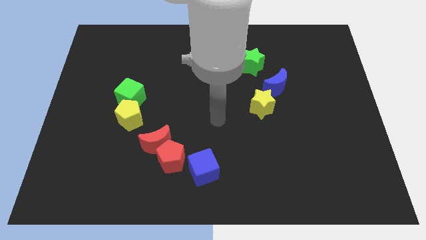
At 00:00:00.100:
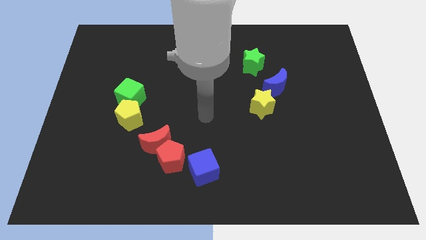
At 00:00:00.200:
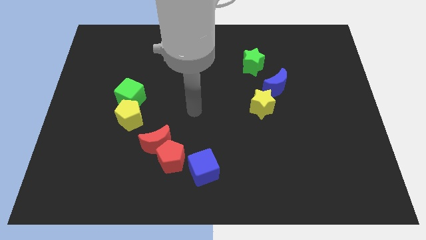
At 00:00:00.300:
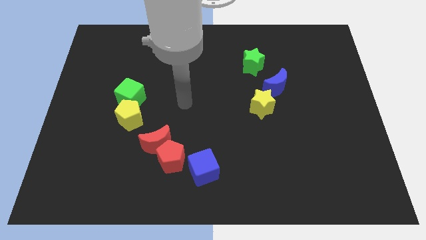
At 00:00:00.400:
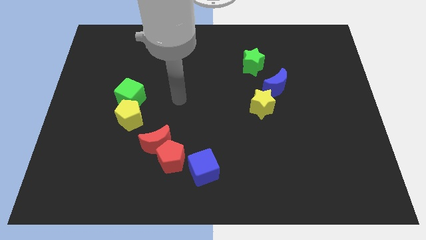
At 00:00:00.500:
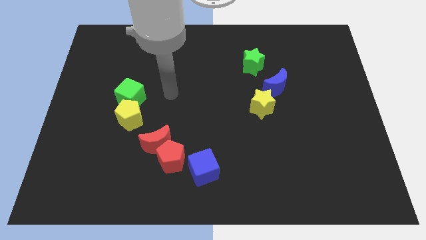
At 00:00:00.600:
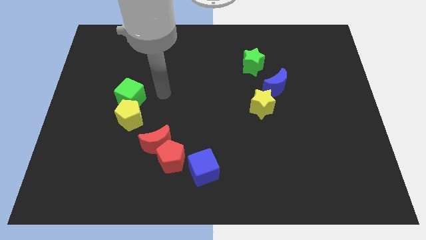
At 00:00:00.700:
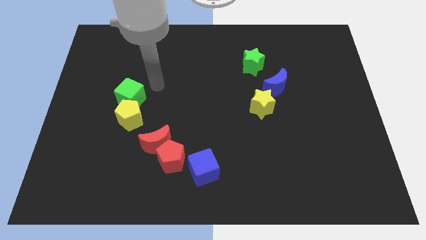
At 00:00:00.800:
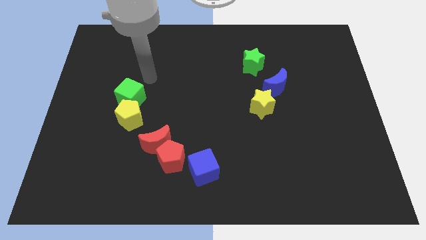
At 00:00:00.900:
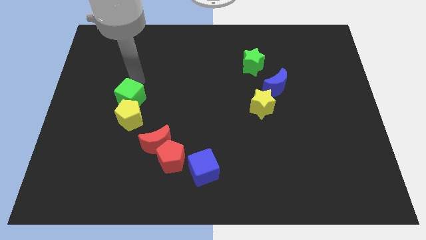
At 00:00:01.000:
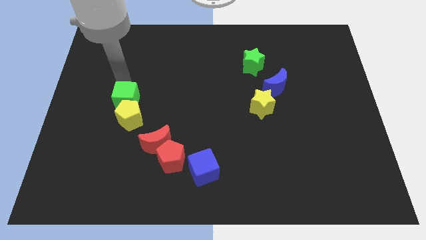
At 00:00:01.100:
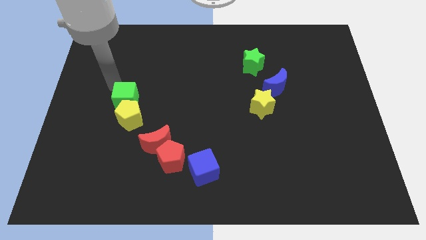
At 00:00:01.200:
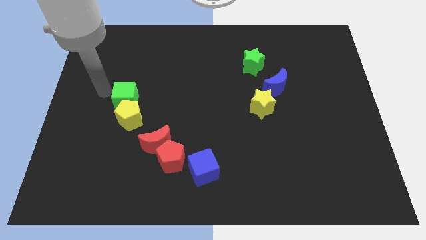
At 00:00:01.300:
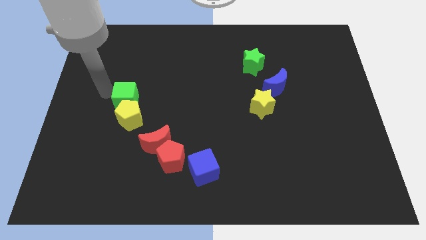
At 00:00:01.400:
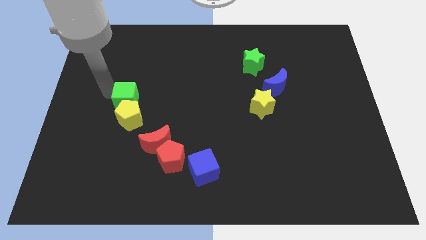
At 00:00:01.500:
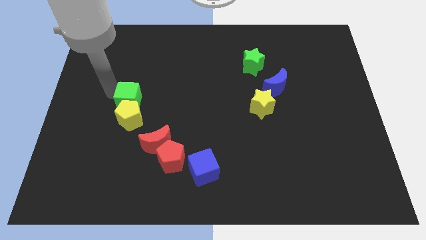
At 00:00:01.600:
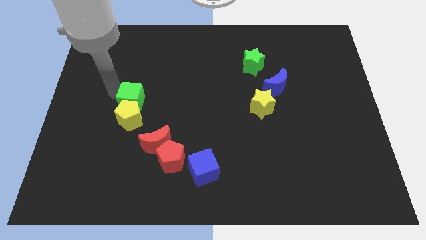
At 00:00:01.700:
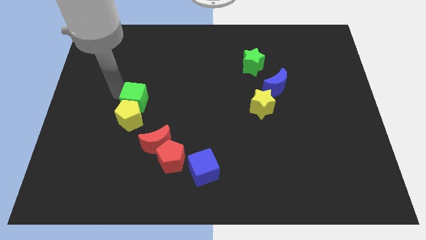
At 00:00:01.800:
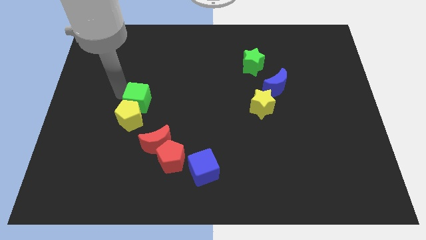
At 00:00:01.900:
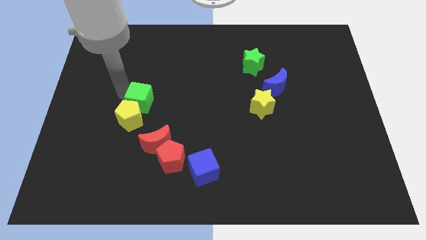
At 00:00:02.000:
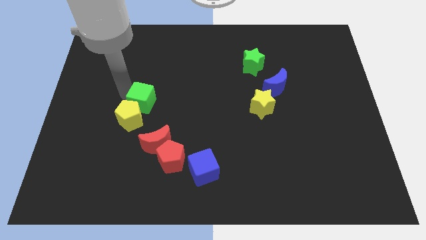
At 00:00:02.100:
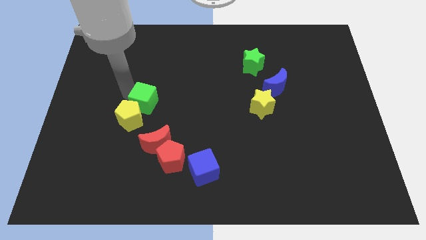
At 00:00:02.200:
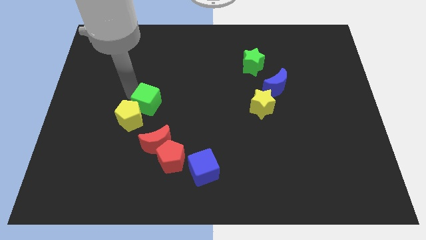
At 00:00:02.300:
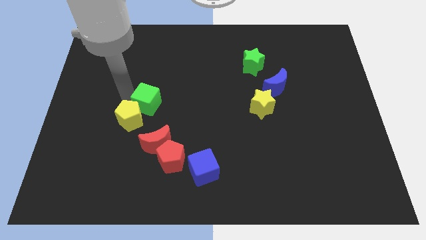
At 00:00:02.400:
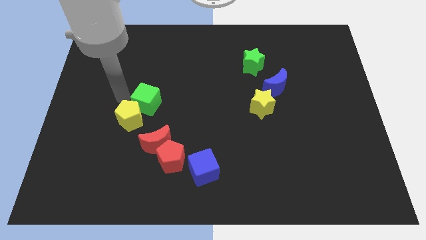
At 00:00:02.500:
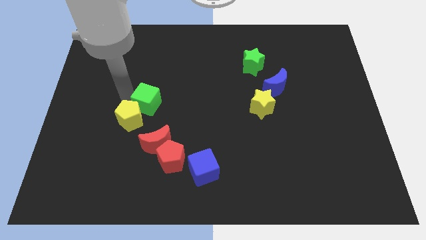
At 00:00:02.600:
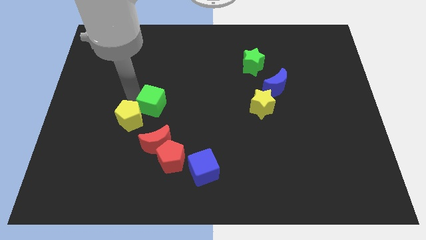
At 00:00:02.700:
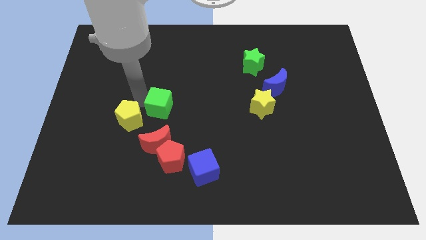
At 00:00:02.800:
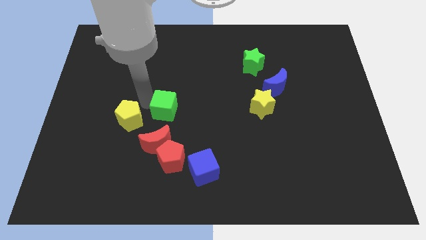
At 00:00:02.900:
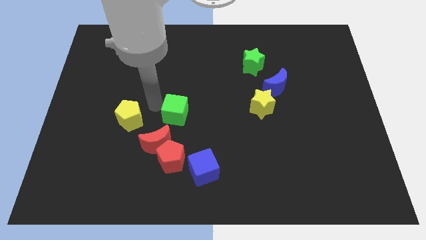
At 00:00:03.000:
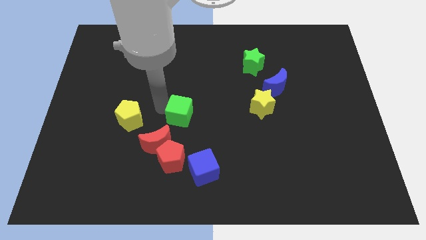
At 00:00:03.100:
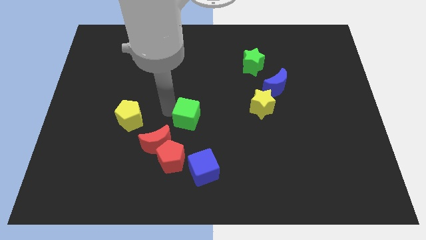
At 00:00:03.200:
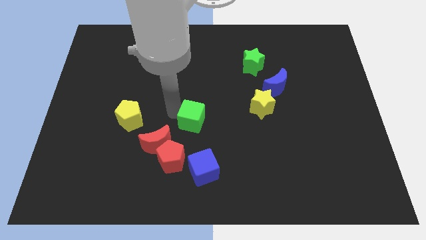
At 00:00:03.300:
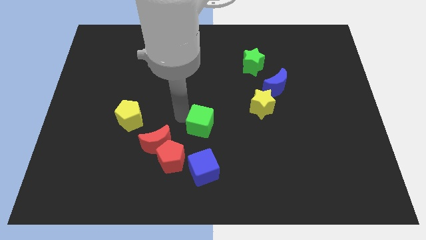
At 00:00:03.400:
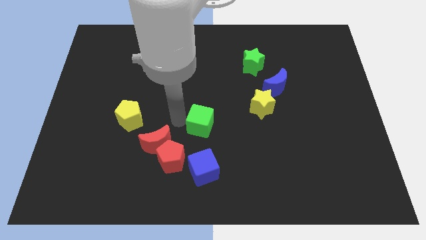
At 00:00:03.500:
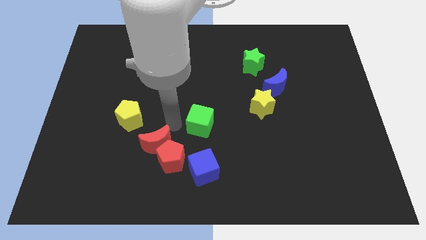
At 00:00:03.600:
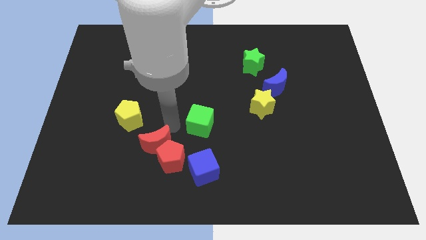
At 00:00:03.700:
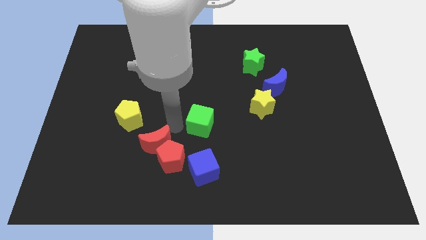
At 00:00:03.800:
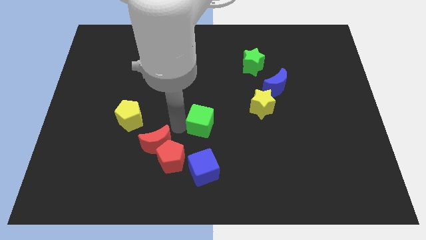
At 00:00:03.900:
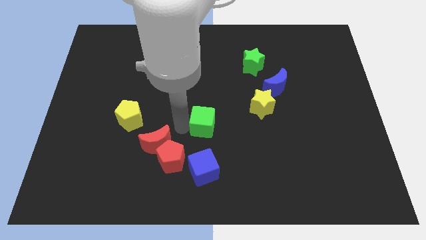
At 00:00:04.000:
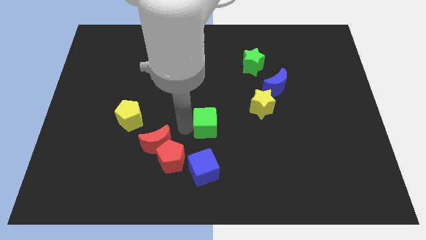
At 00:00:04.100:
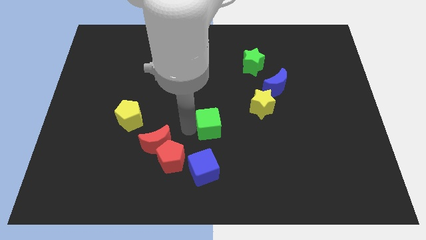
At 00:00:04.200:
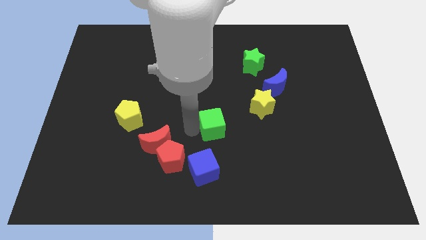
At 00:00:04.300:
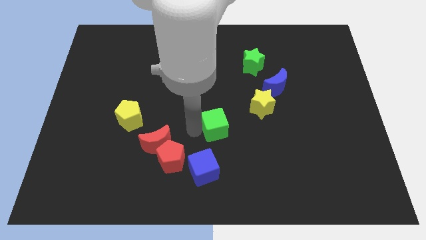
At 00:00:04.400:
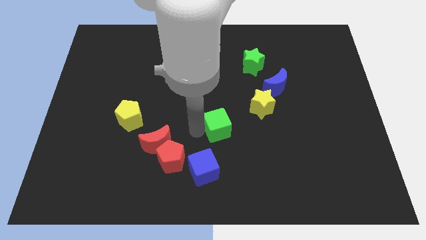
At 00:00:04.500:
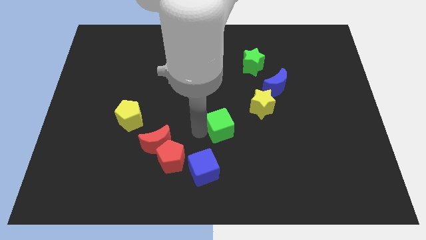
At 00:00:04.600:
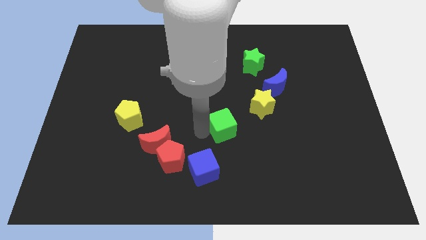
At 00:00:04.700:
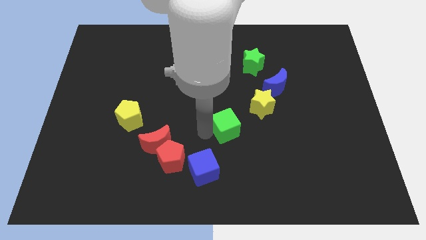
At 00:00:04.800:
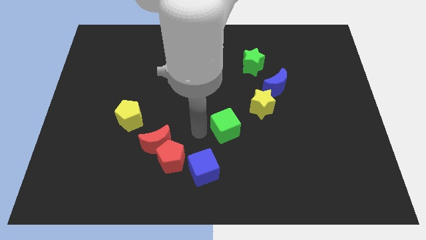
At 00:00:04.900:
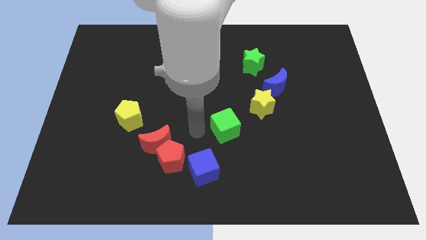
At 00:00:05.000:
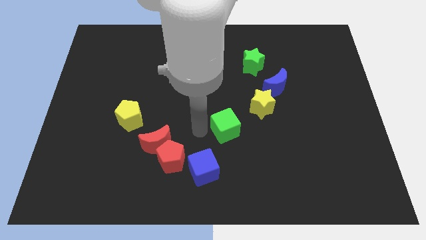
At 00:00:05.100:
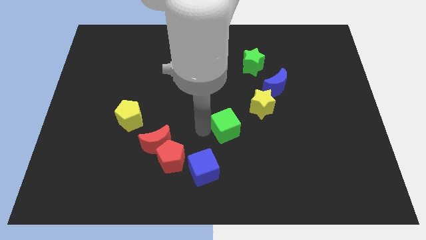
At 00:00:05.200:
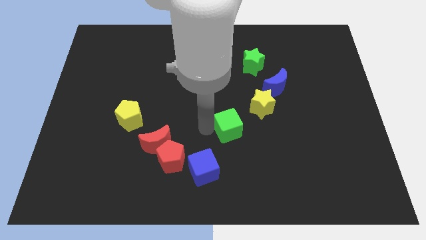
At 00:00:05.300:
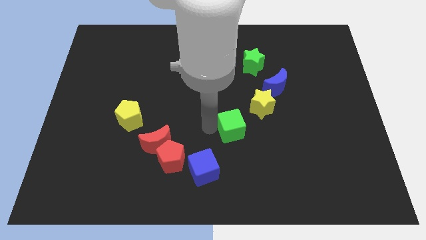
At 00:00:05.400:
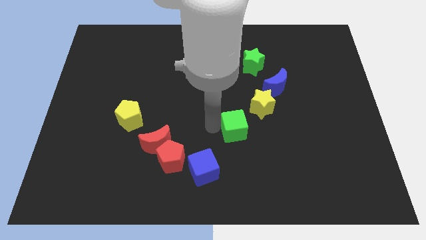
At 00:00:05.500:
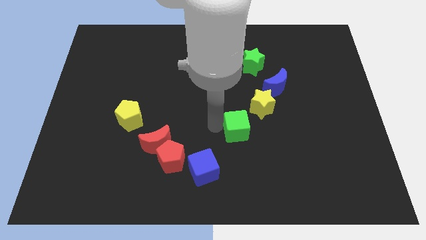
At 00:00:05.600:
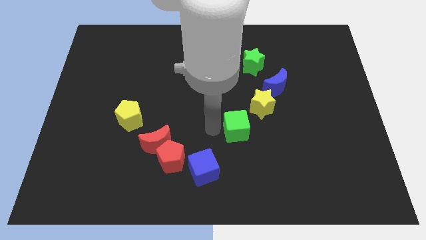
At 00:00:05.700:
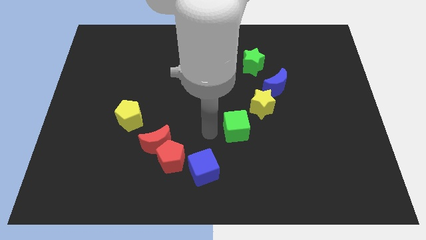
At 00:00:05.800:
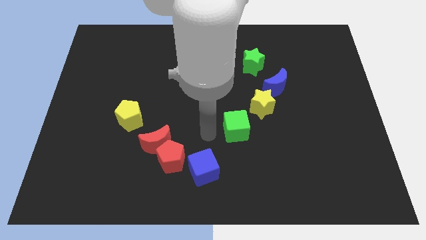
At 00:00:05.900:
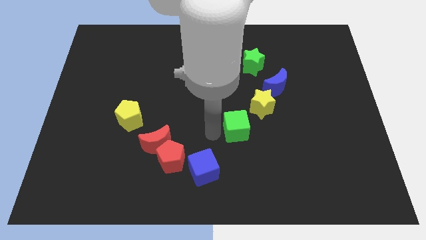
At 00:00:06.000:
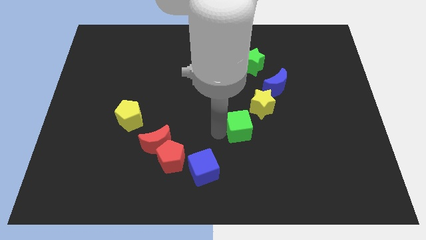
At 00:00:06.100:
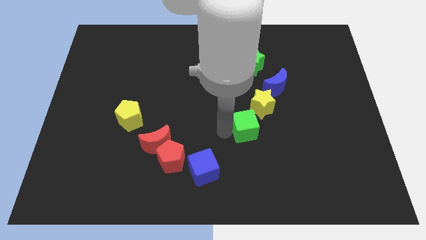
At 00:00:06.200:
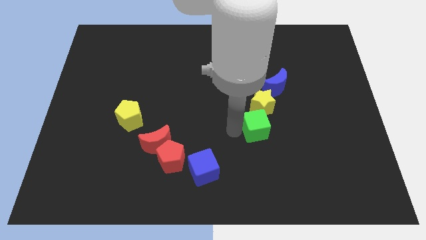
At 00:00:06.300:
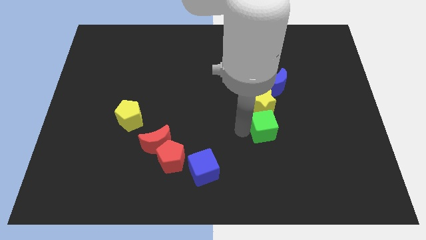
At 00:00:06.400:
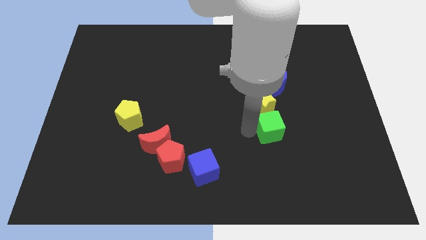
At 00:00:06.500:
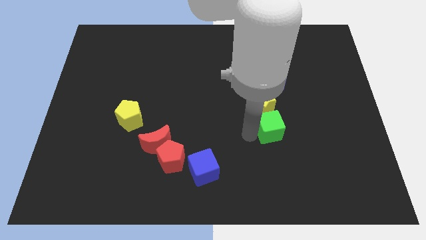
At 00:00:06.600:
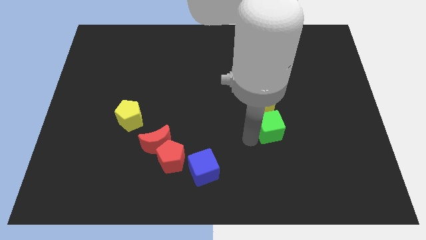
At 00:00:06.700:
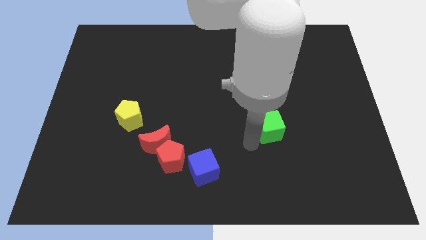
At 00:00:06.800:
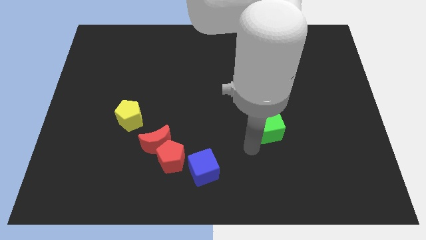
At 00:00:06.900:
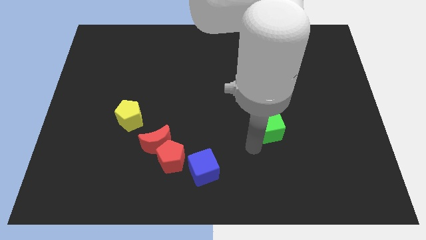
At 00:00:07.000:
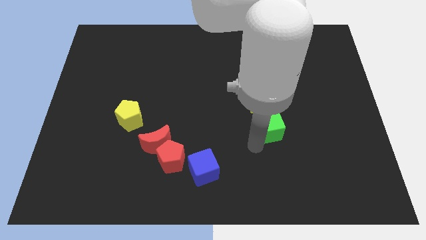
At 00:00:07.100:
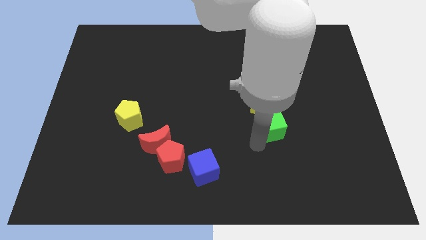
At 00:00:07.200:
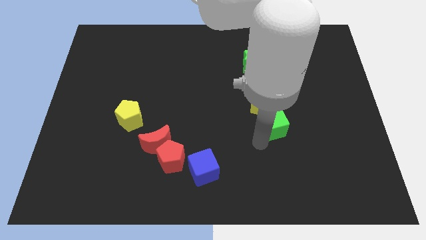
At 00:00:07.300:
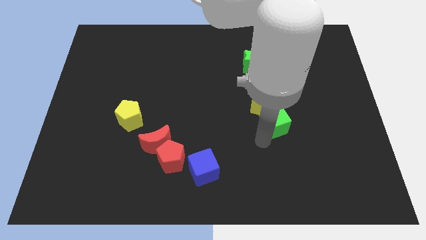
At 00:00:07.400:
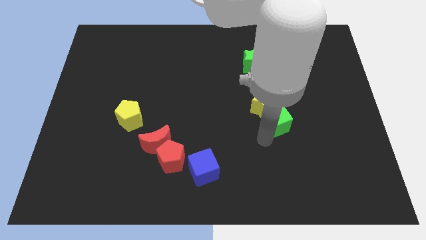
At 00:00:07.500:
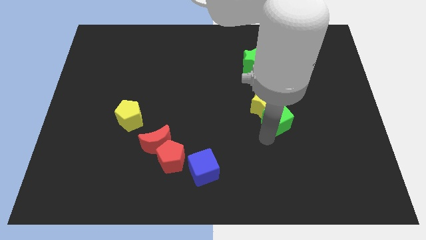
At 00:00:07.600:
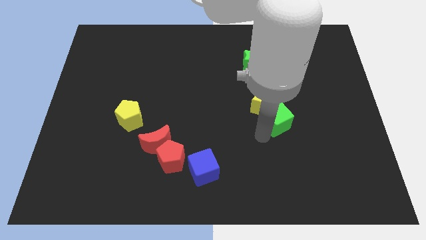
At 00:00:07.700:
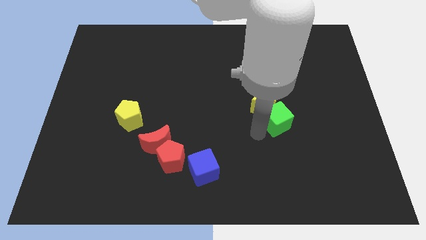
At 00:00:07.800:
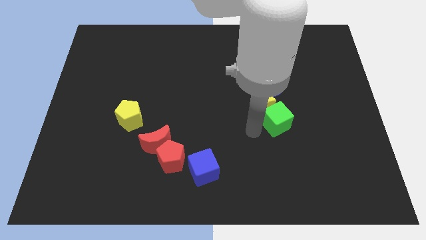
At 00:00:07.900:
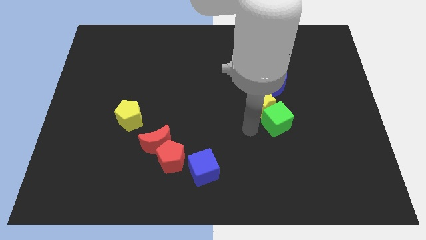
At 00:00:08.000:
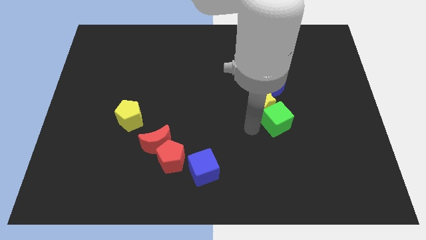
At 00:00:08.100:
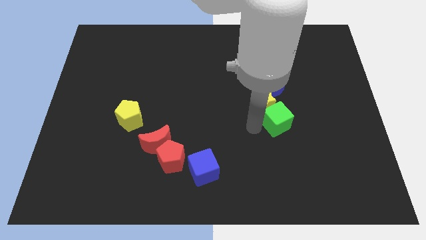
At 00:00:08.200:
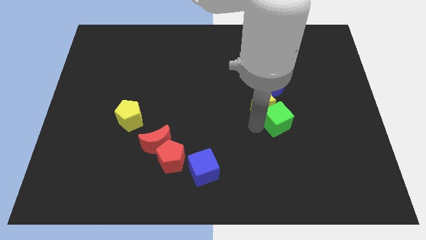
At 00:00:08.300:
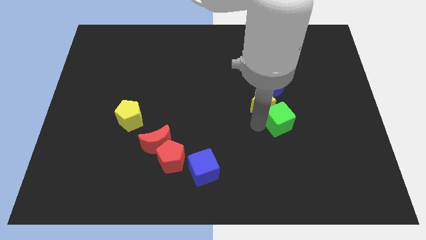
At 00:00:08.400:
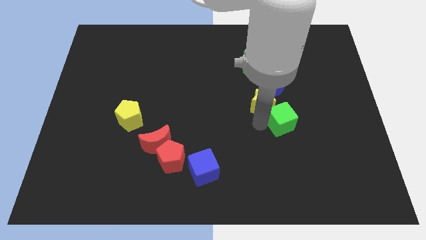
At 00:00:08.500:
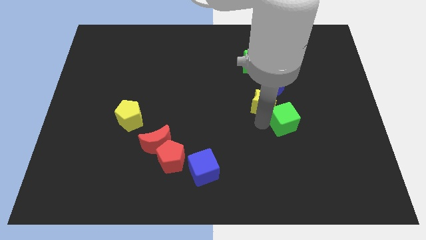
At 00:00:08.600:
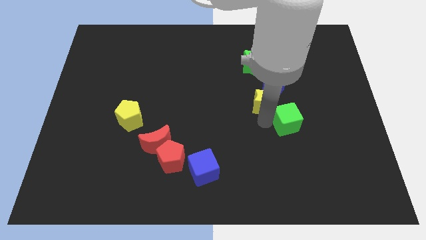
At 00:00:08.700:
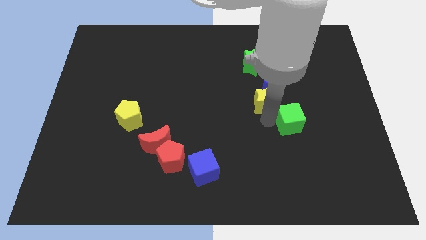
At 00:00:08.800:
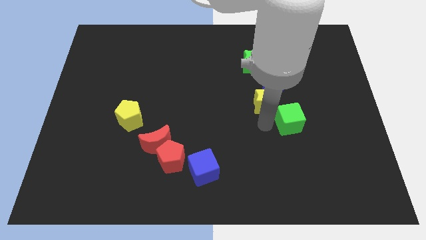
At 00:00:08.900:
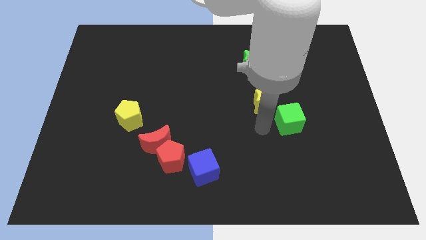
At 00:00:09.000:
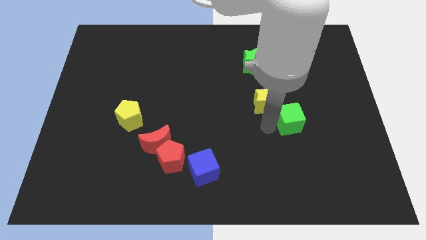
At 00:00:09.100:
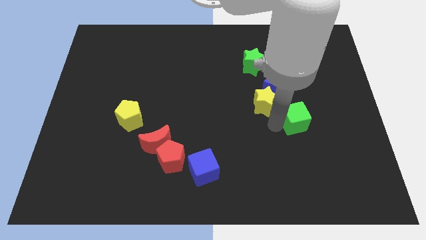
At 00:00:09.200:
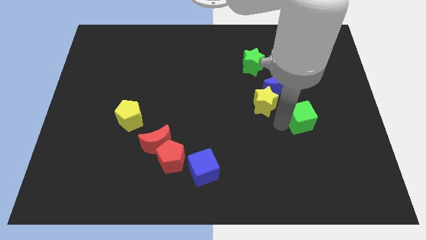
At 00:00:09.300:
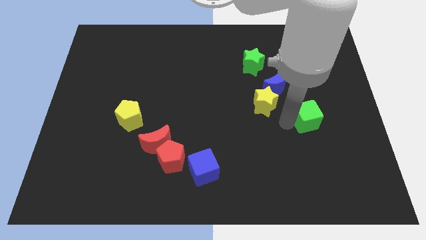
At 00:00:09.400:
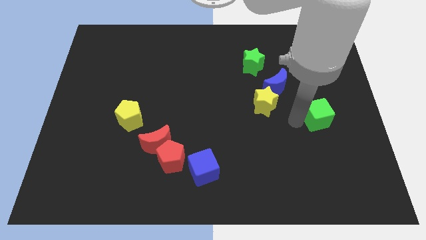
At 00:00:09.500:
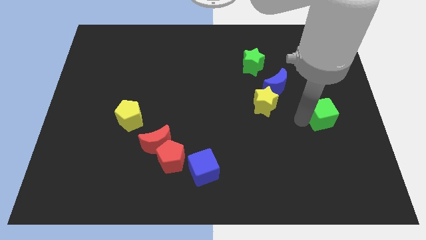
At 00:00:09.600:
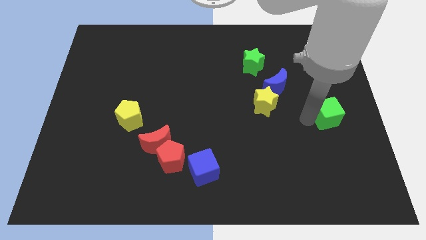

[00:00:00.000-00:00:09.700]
push the green cube to the right side
